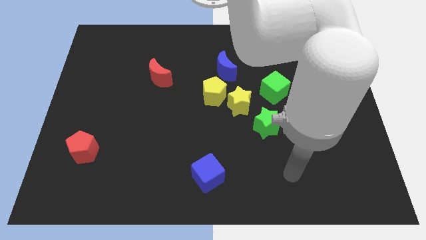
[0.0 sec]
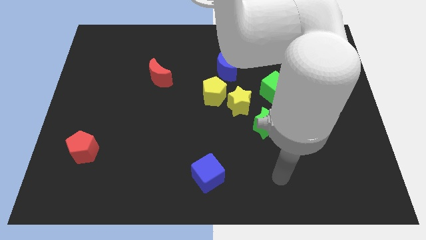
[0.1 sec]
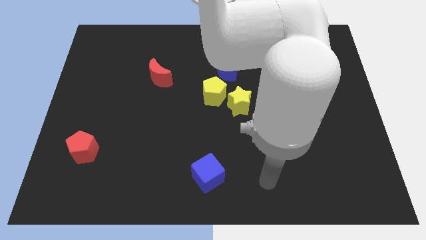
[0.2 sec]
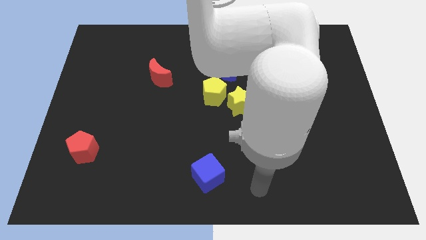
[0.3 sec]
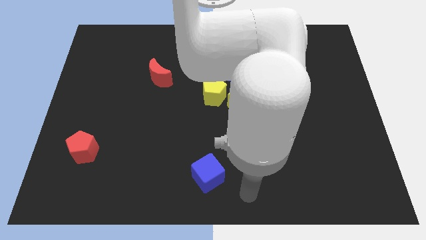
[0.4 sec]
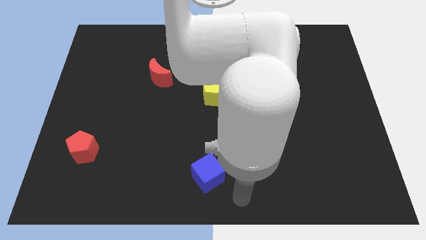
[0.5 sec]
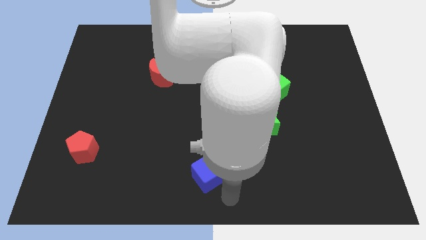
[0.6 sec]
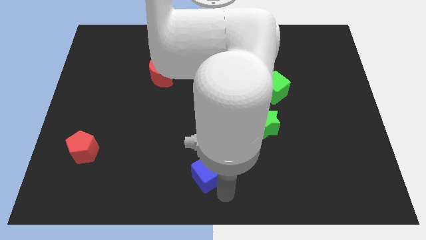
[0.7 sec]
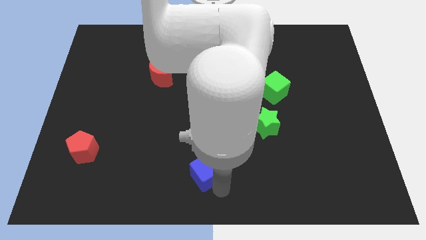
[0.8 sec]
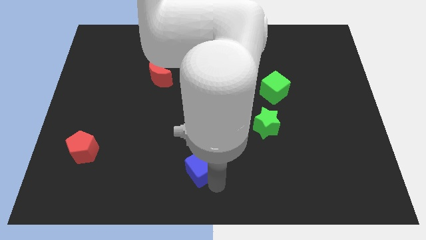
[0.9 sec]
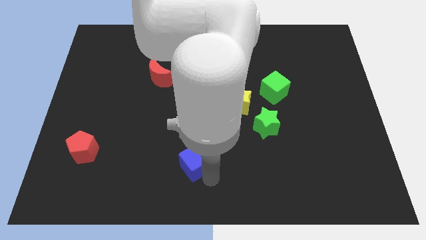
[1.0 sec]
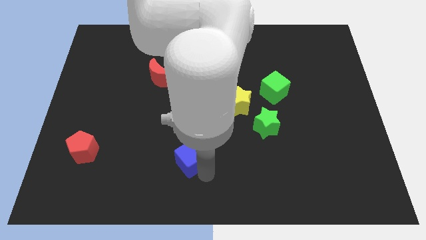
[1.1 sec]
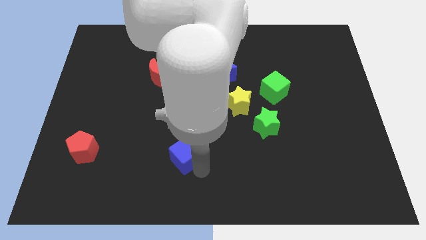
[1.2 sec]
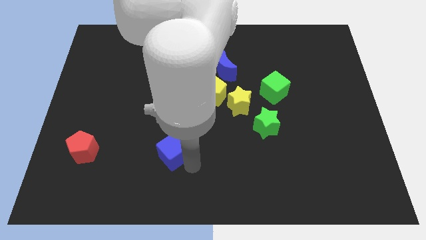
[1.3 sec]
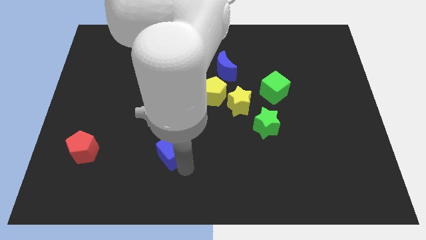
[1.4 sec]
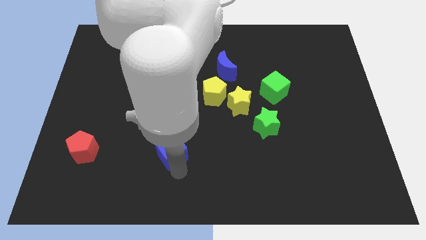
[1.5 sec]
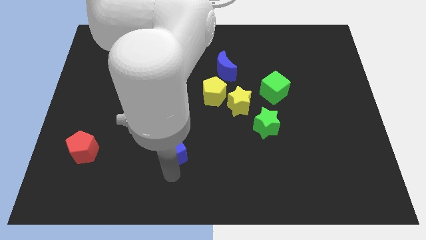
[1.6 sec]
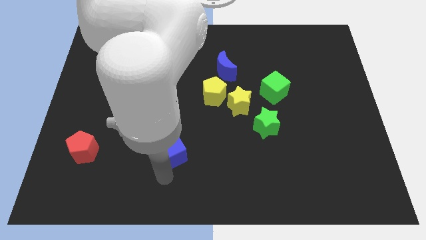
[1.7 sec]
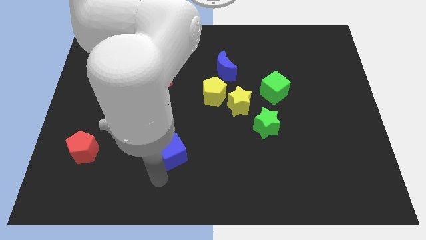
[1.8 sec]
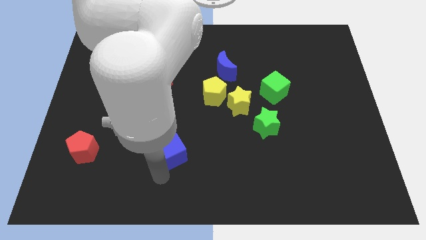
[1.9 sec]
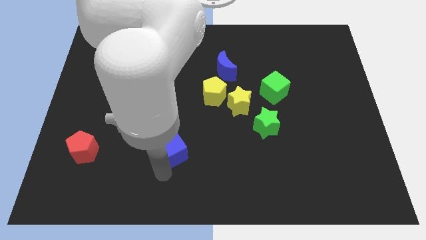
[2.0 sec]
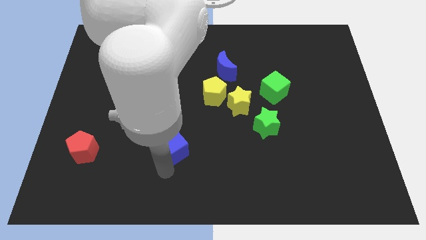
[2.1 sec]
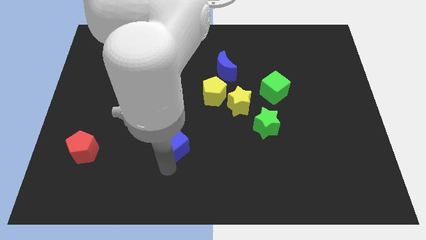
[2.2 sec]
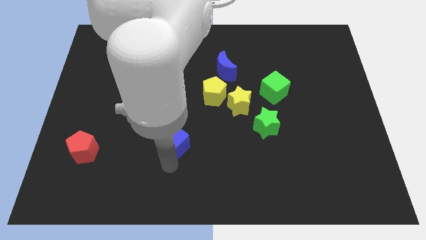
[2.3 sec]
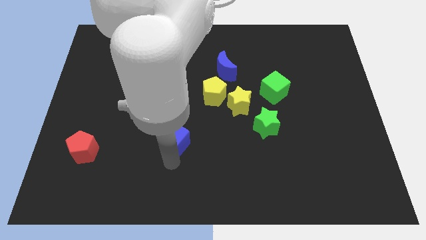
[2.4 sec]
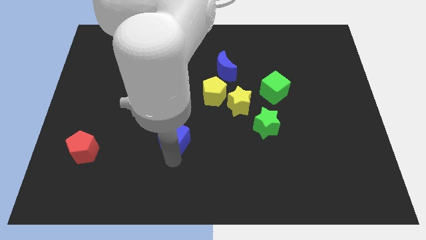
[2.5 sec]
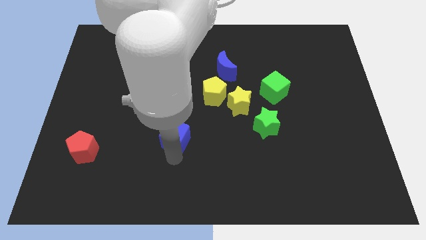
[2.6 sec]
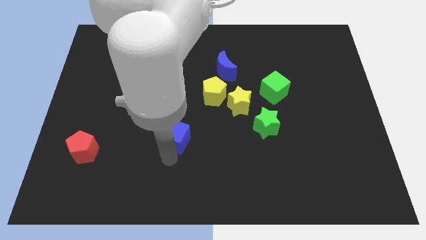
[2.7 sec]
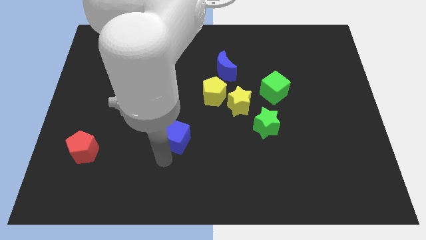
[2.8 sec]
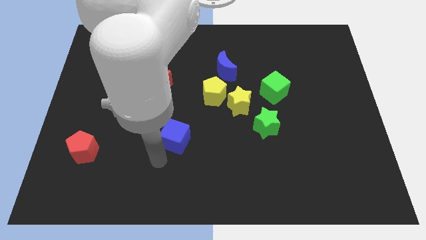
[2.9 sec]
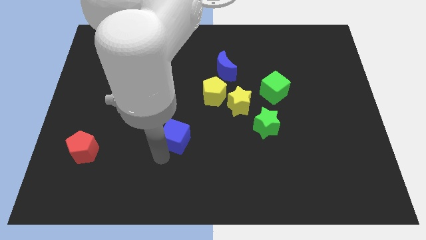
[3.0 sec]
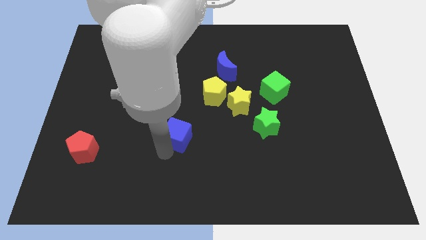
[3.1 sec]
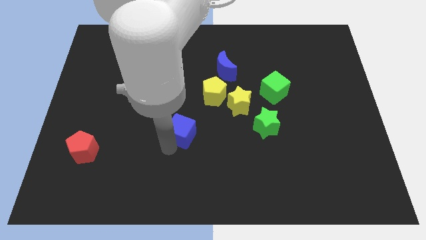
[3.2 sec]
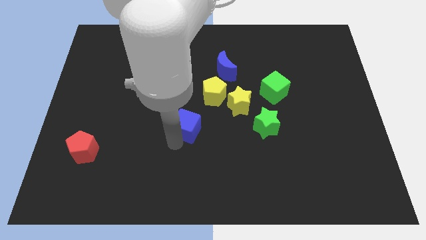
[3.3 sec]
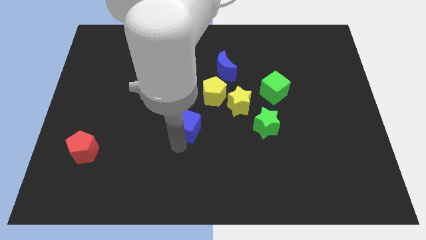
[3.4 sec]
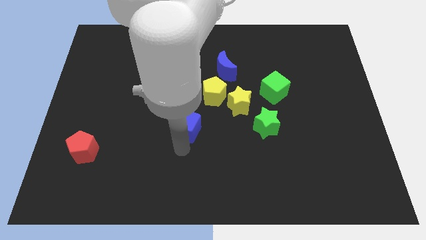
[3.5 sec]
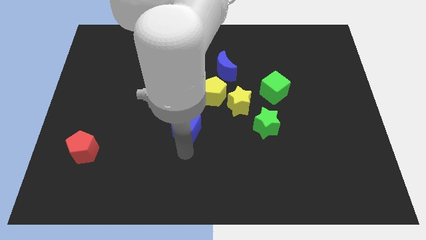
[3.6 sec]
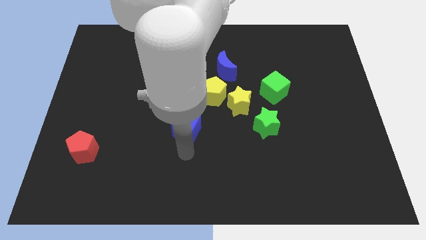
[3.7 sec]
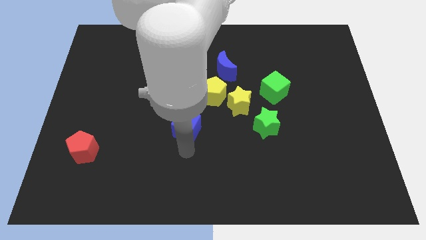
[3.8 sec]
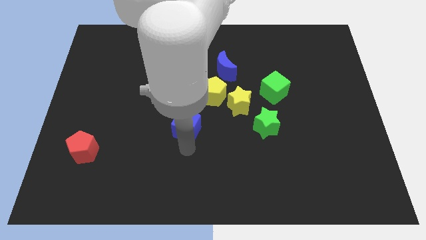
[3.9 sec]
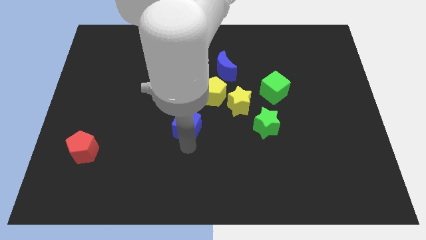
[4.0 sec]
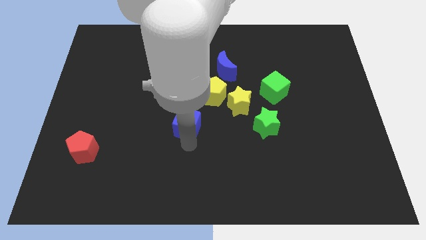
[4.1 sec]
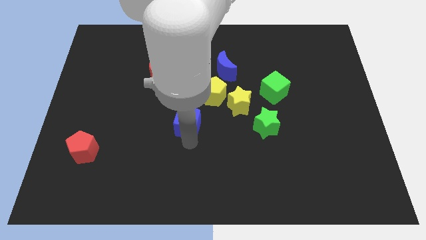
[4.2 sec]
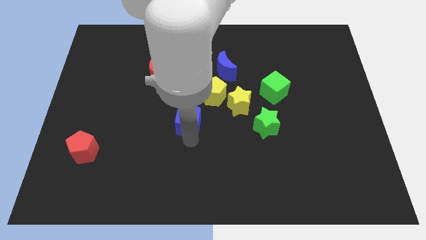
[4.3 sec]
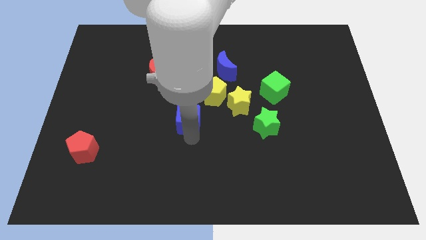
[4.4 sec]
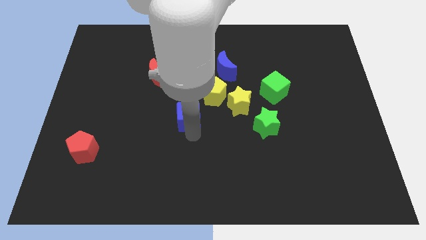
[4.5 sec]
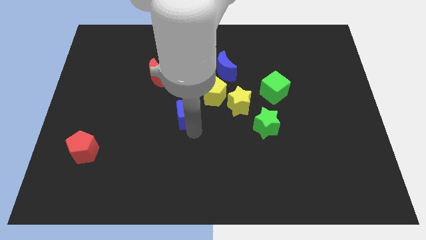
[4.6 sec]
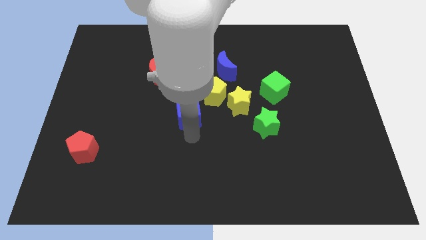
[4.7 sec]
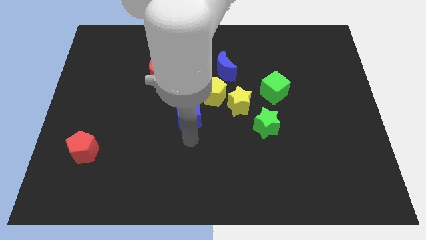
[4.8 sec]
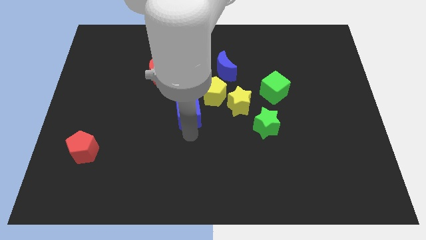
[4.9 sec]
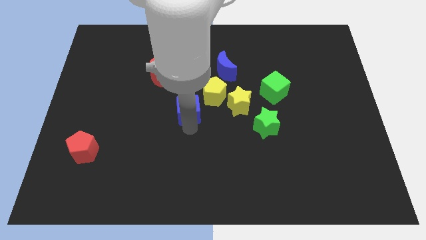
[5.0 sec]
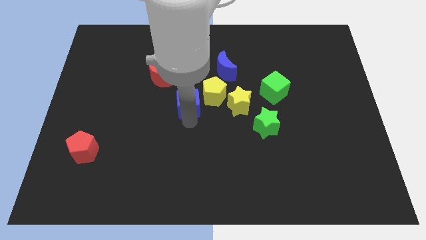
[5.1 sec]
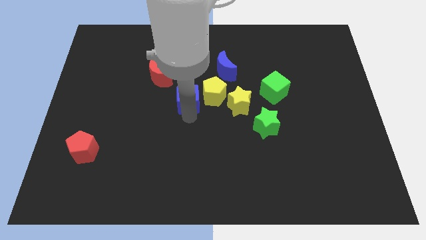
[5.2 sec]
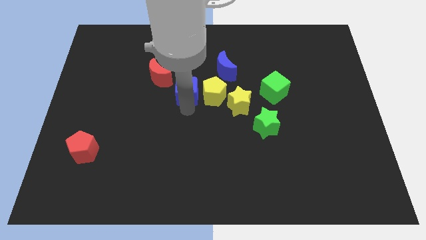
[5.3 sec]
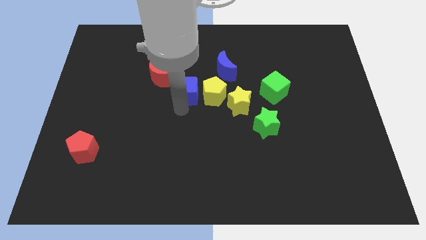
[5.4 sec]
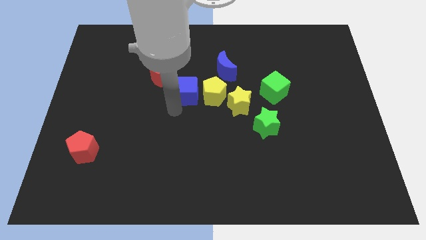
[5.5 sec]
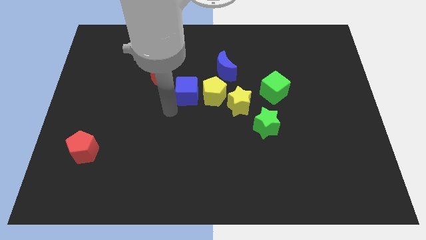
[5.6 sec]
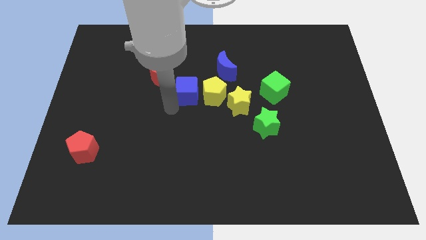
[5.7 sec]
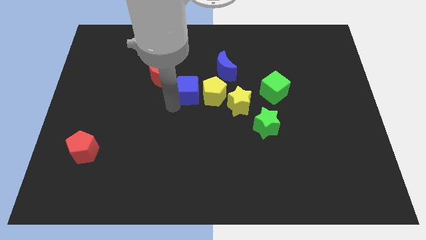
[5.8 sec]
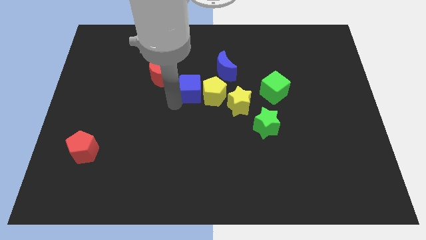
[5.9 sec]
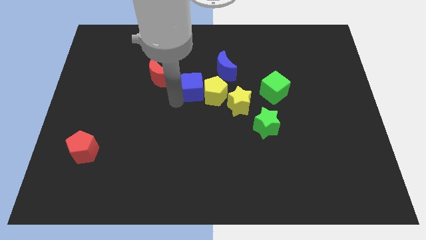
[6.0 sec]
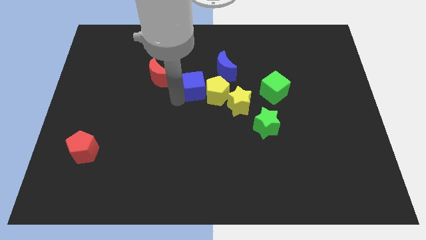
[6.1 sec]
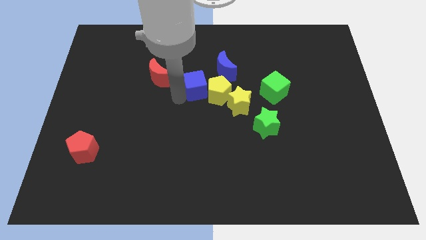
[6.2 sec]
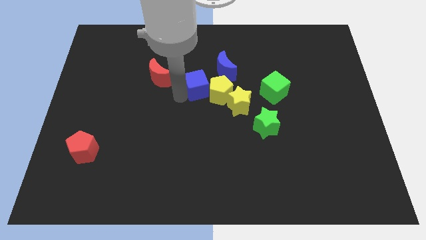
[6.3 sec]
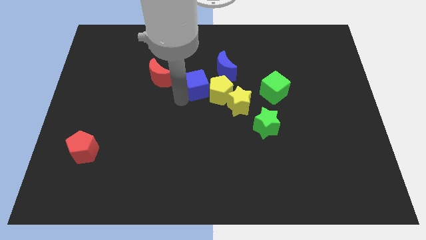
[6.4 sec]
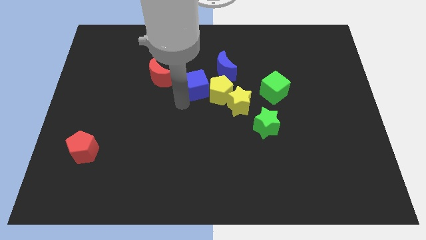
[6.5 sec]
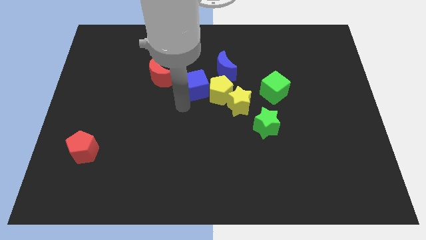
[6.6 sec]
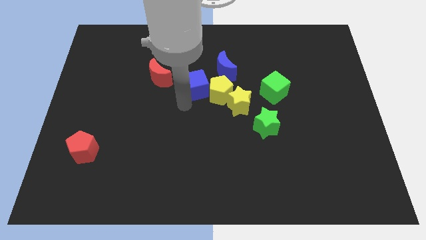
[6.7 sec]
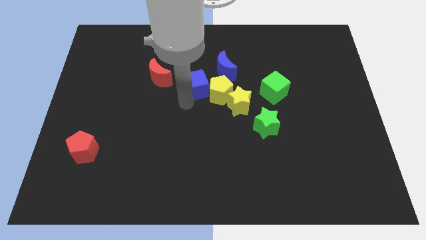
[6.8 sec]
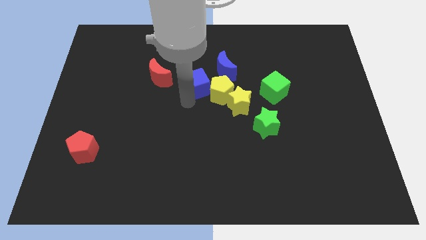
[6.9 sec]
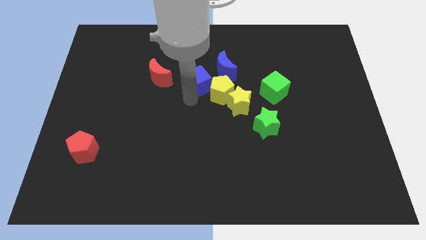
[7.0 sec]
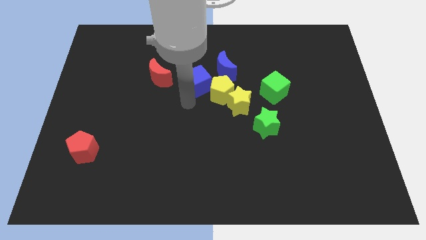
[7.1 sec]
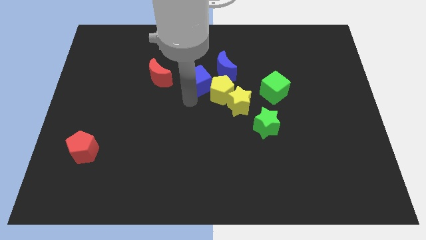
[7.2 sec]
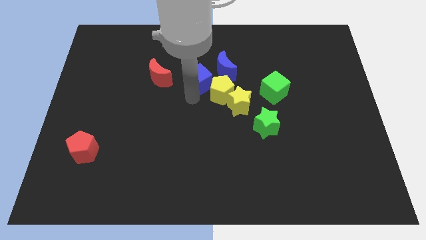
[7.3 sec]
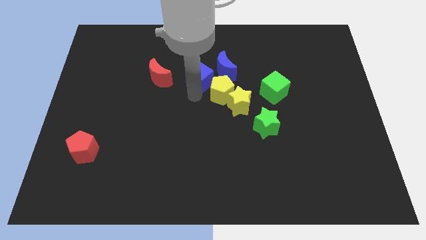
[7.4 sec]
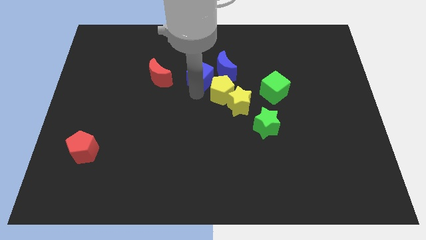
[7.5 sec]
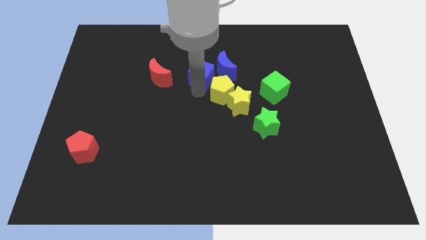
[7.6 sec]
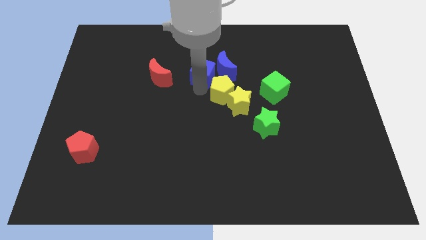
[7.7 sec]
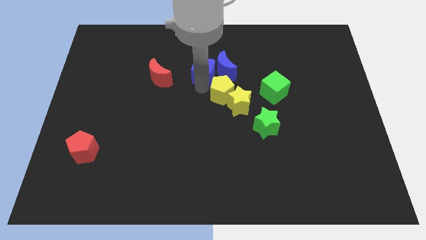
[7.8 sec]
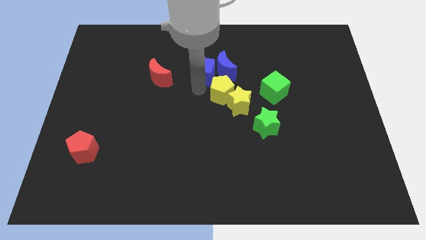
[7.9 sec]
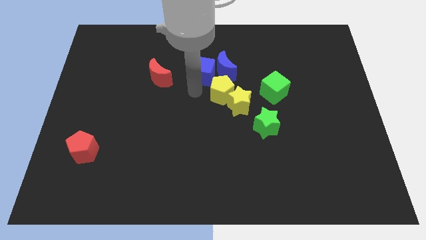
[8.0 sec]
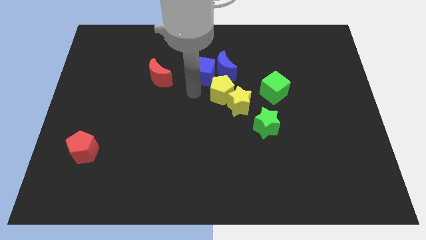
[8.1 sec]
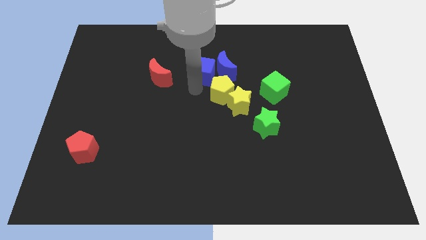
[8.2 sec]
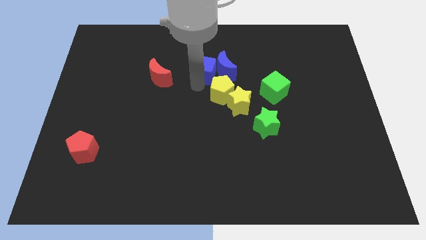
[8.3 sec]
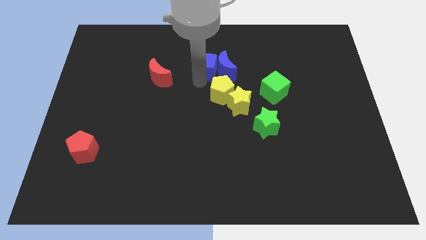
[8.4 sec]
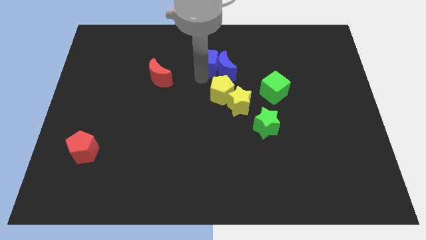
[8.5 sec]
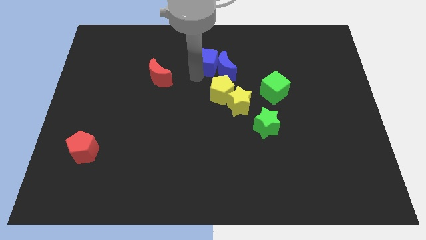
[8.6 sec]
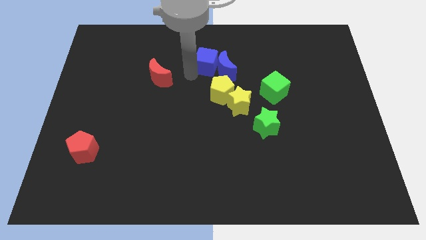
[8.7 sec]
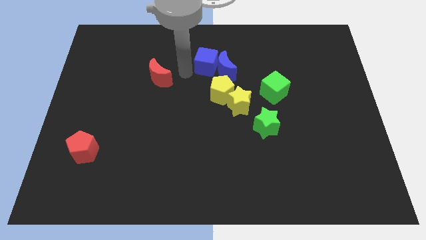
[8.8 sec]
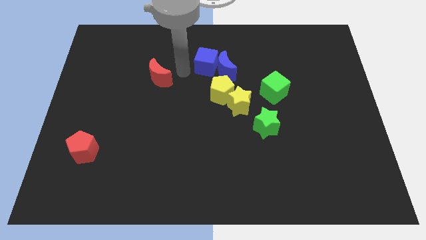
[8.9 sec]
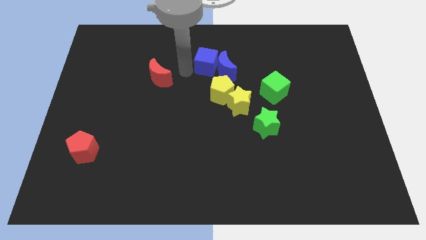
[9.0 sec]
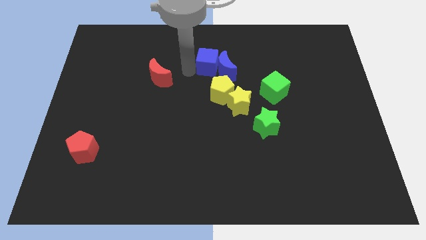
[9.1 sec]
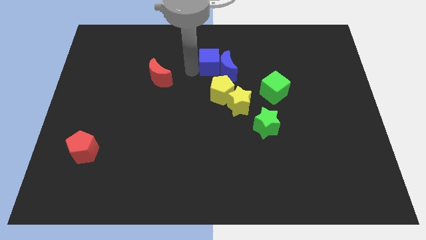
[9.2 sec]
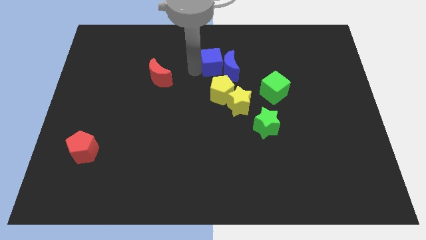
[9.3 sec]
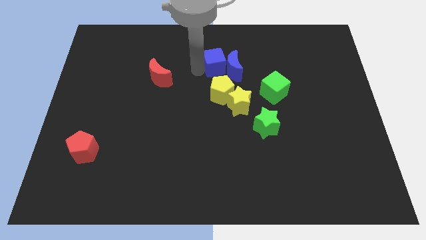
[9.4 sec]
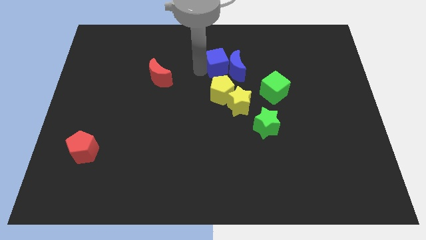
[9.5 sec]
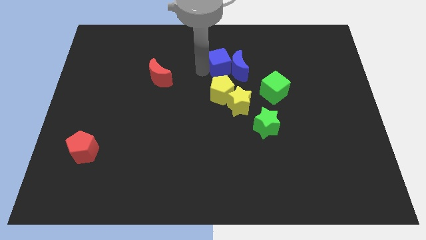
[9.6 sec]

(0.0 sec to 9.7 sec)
move the blue cube above the yellow star
